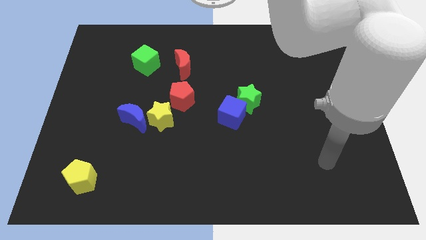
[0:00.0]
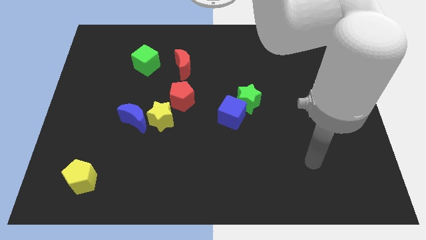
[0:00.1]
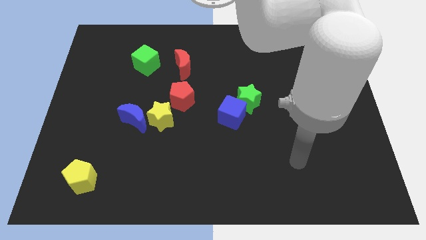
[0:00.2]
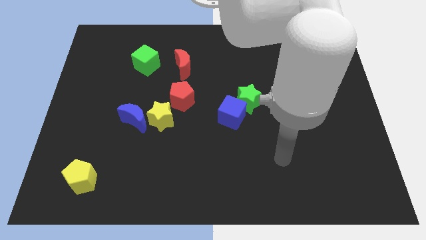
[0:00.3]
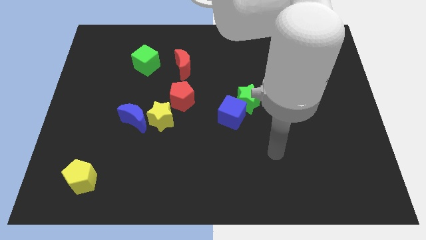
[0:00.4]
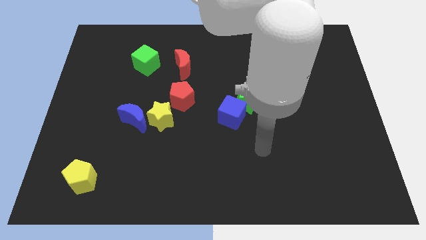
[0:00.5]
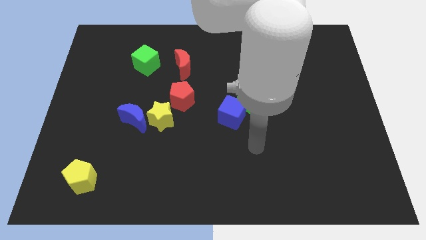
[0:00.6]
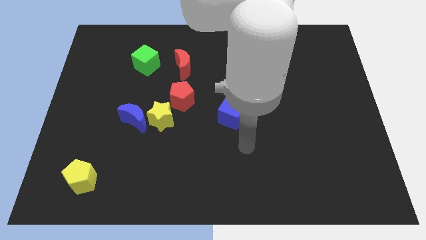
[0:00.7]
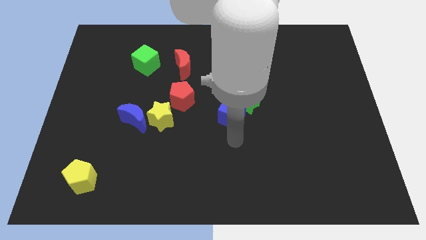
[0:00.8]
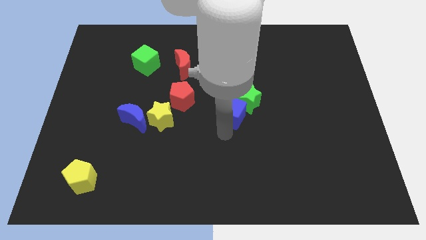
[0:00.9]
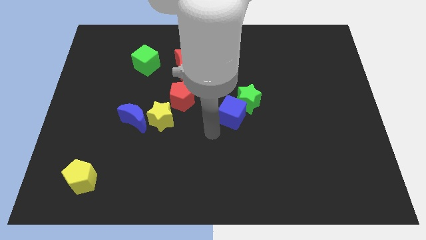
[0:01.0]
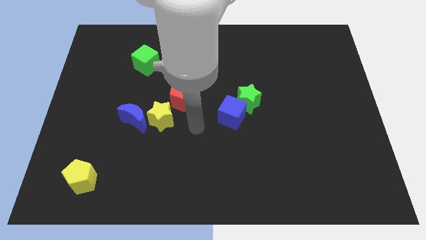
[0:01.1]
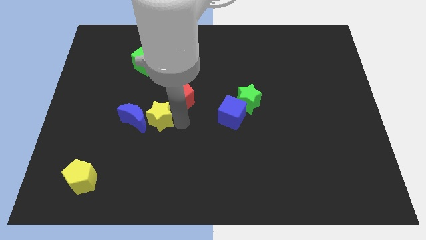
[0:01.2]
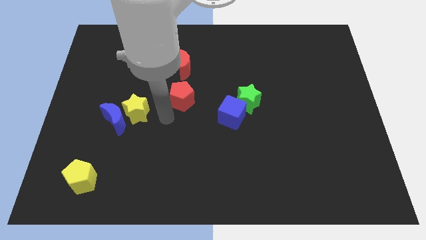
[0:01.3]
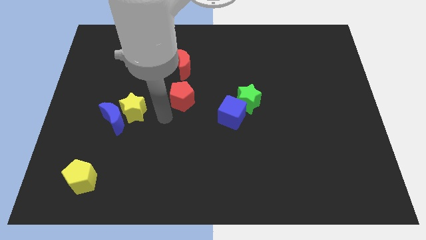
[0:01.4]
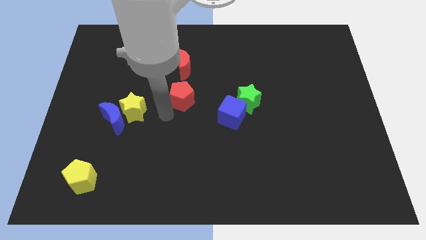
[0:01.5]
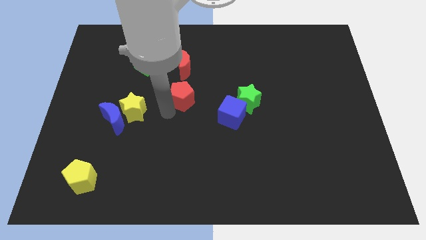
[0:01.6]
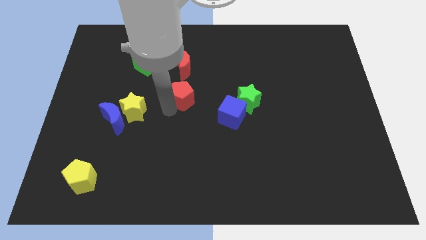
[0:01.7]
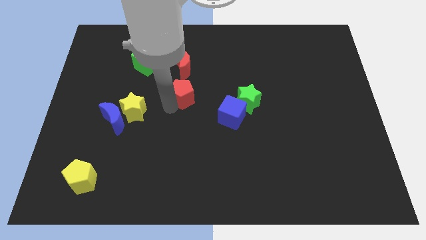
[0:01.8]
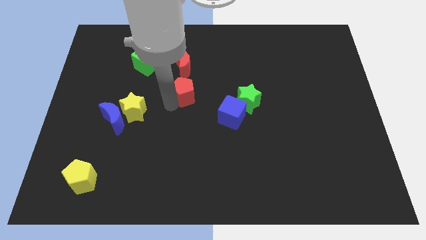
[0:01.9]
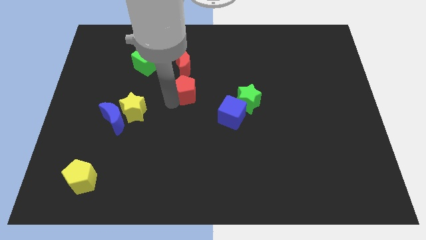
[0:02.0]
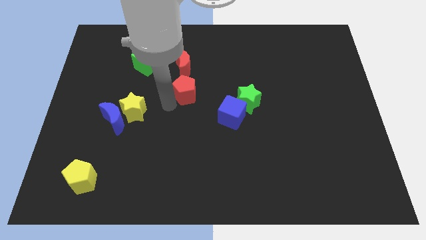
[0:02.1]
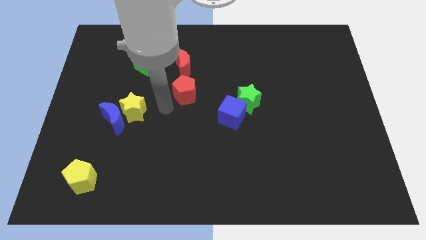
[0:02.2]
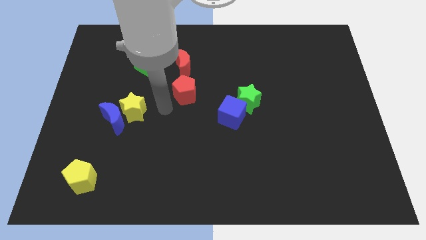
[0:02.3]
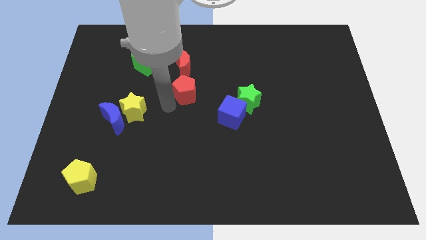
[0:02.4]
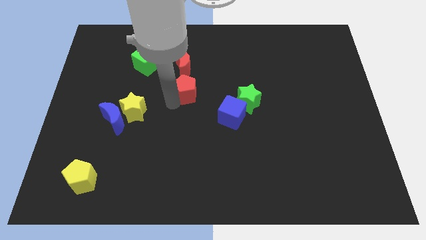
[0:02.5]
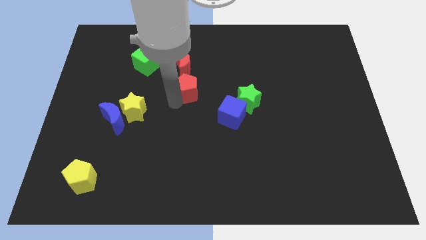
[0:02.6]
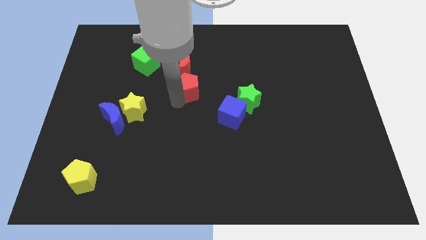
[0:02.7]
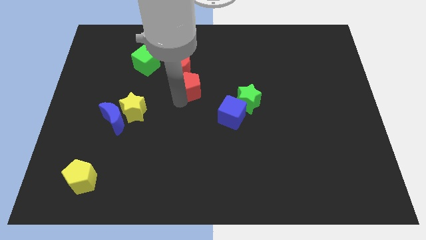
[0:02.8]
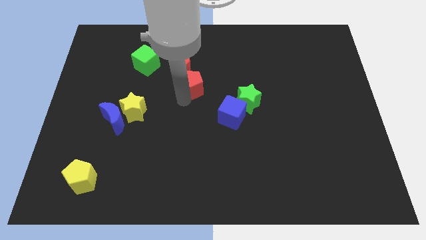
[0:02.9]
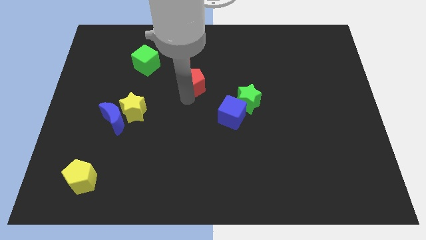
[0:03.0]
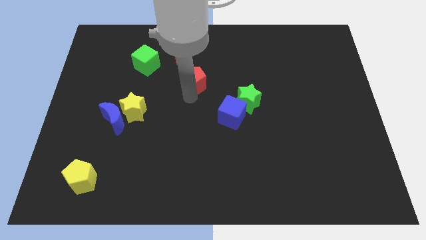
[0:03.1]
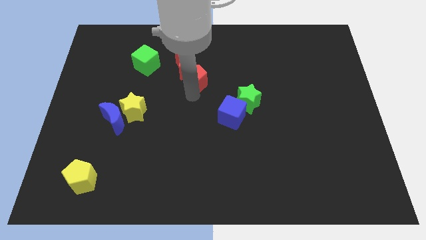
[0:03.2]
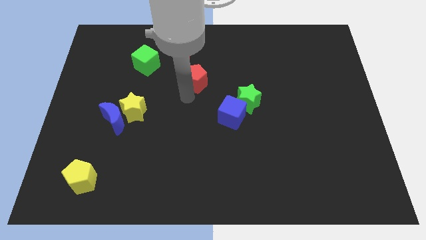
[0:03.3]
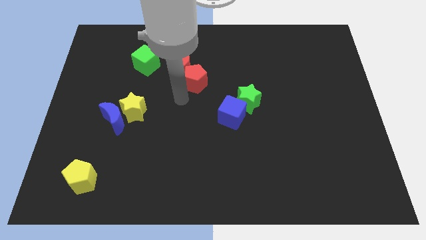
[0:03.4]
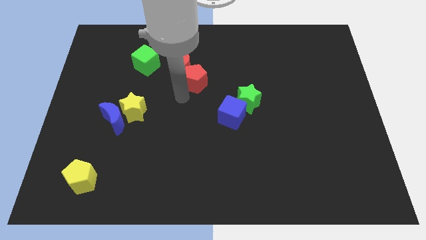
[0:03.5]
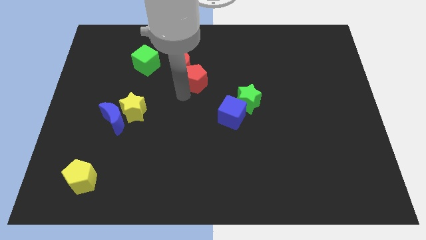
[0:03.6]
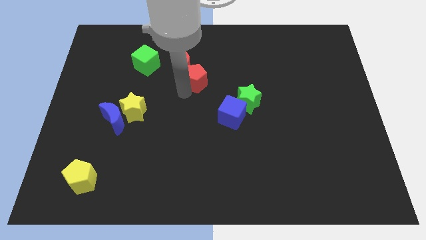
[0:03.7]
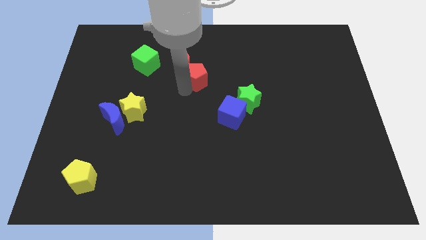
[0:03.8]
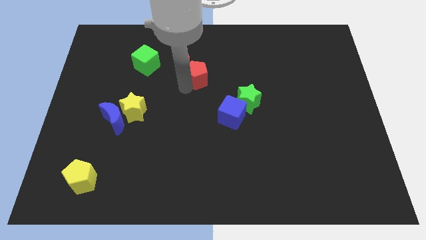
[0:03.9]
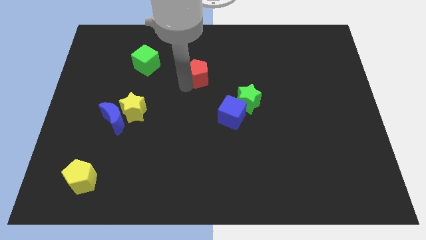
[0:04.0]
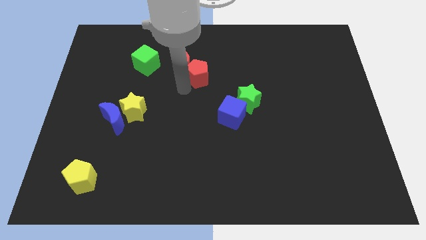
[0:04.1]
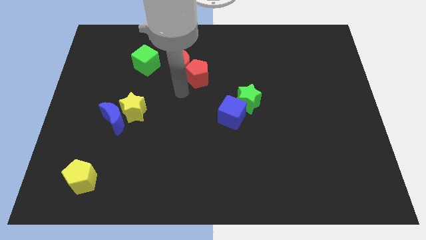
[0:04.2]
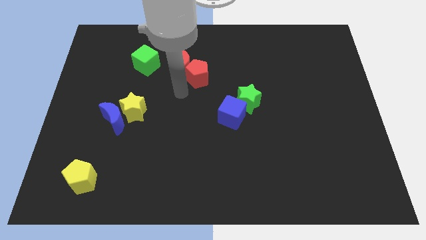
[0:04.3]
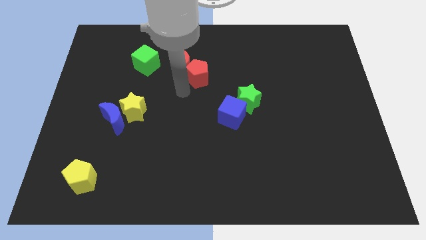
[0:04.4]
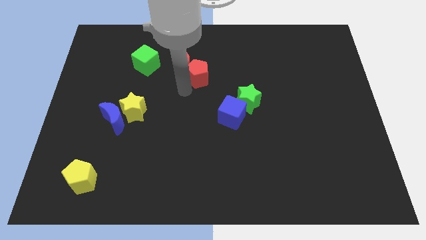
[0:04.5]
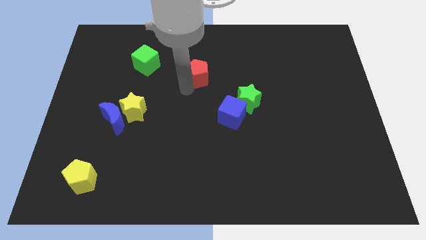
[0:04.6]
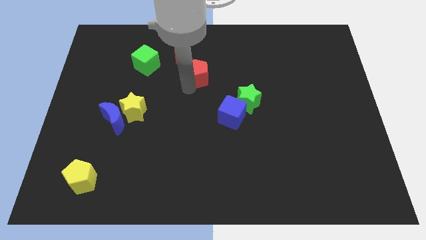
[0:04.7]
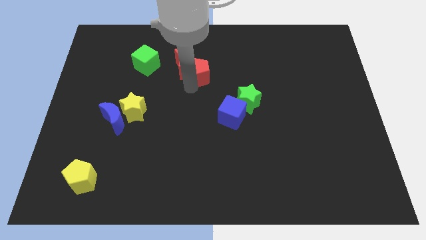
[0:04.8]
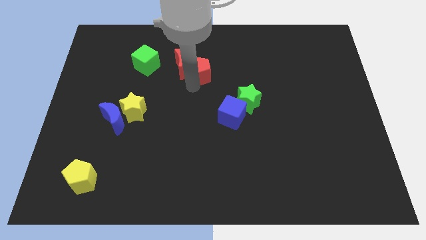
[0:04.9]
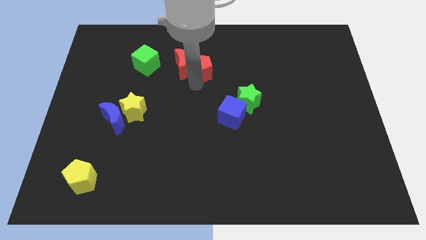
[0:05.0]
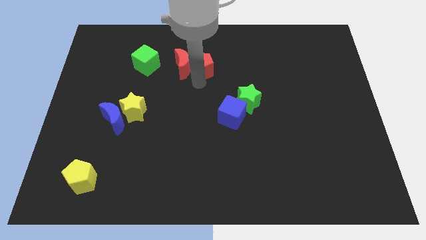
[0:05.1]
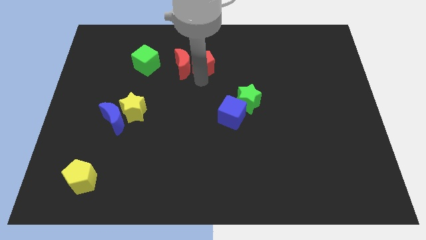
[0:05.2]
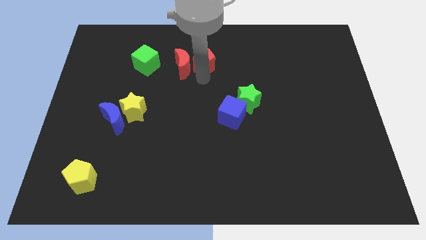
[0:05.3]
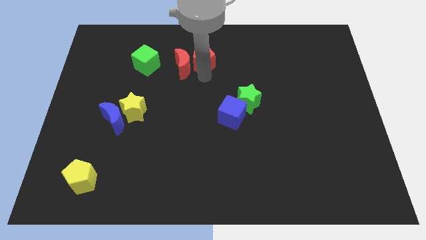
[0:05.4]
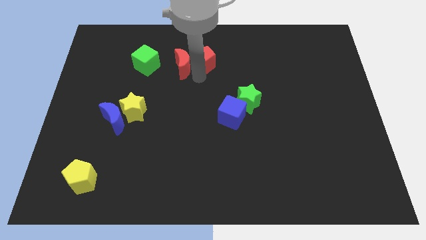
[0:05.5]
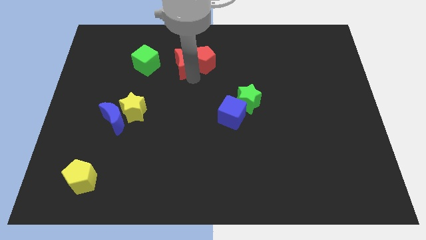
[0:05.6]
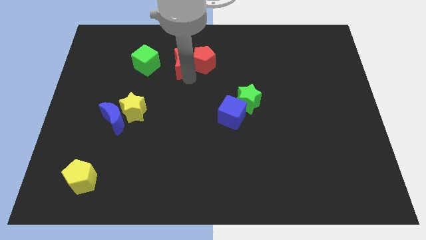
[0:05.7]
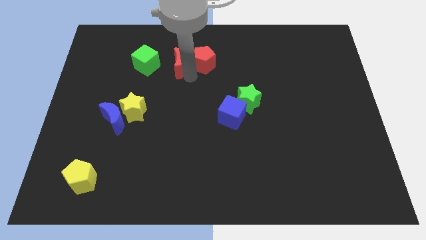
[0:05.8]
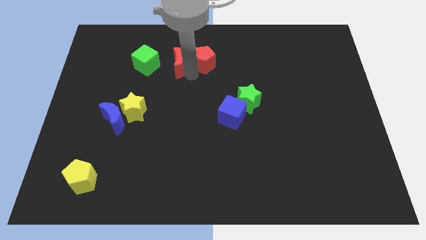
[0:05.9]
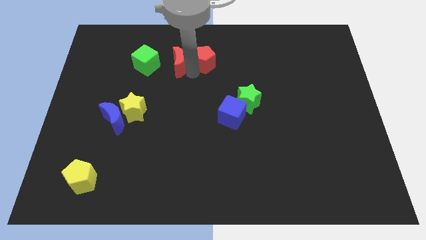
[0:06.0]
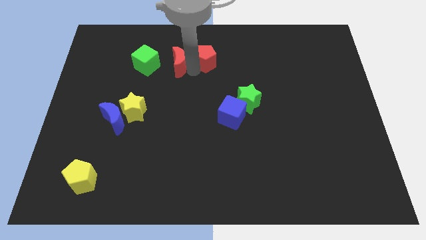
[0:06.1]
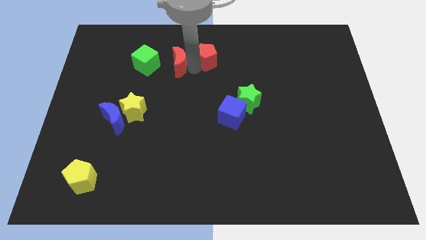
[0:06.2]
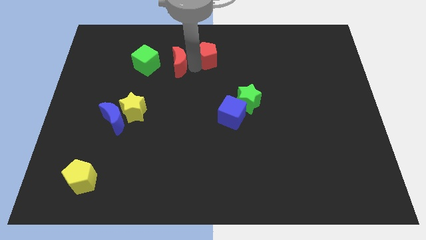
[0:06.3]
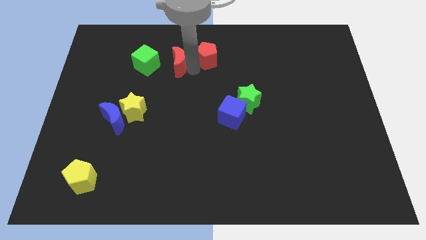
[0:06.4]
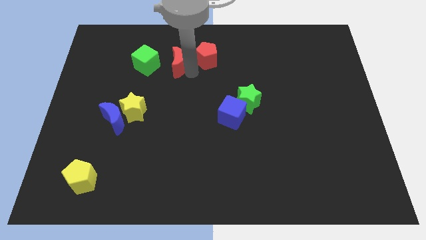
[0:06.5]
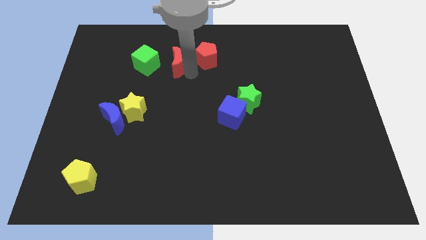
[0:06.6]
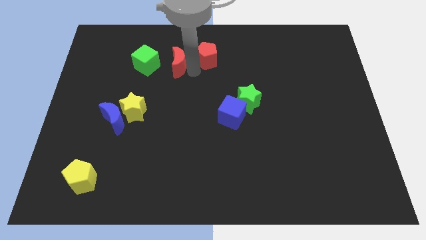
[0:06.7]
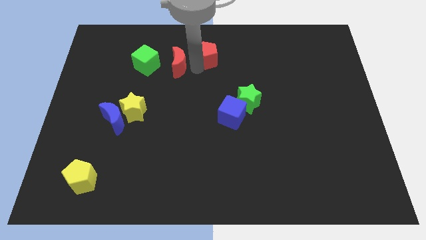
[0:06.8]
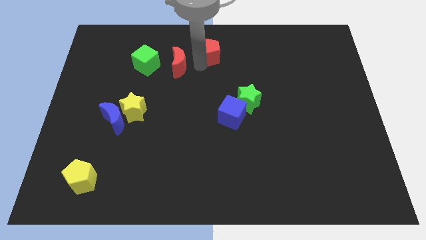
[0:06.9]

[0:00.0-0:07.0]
push the red pentagon to the top
